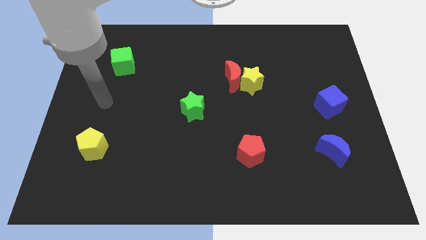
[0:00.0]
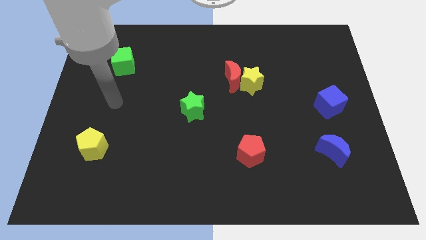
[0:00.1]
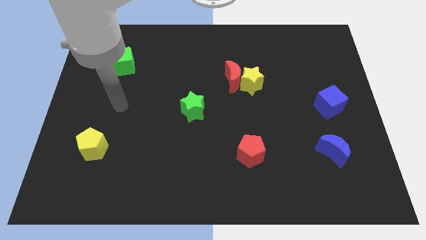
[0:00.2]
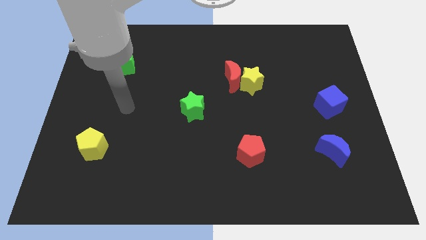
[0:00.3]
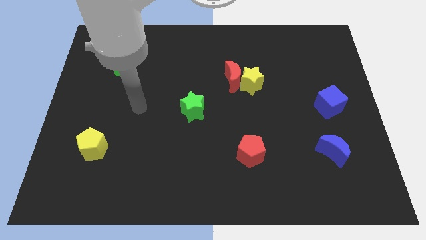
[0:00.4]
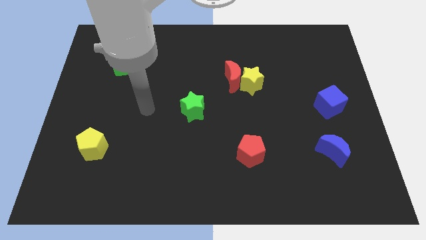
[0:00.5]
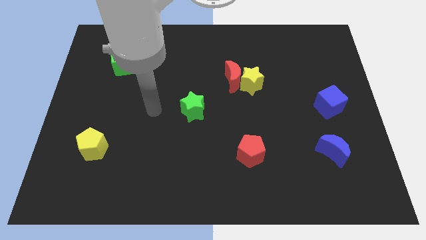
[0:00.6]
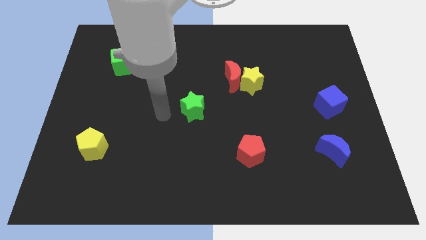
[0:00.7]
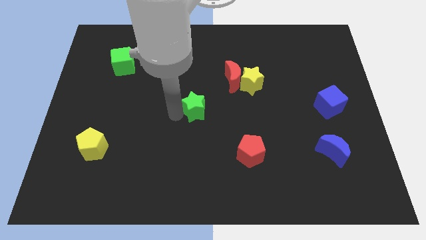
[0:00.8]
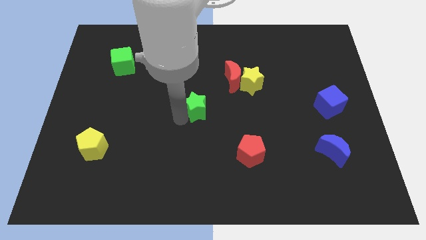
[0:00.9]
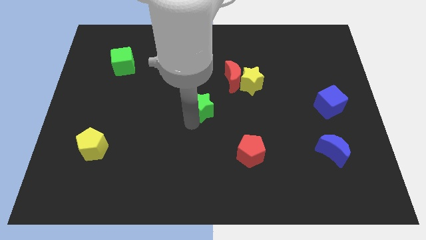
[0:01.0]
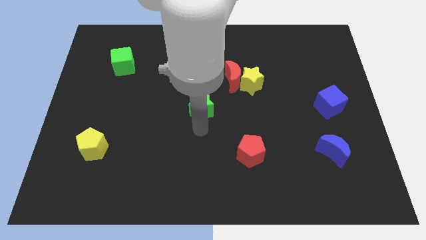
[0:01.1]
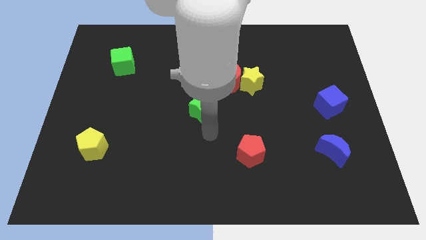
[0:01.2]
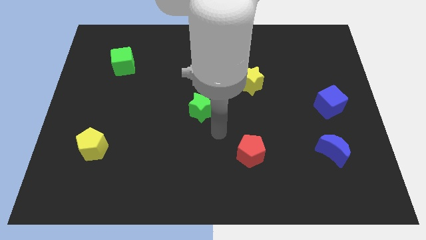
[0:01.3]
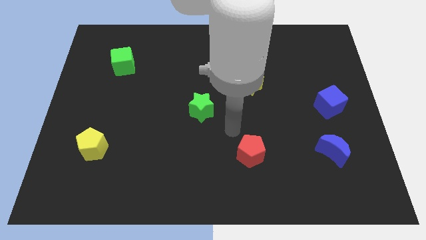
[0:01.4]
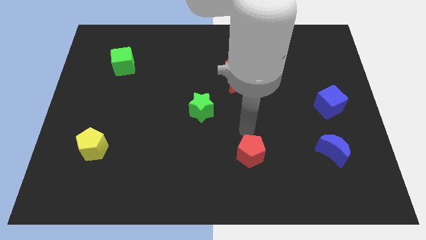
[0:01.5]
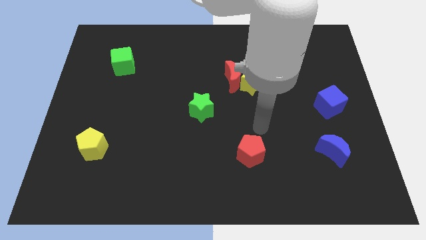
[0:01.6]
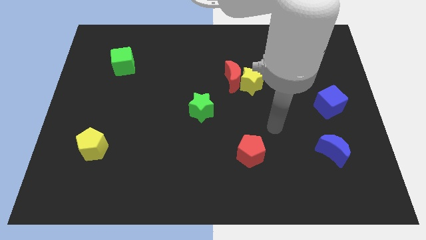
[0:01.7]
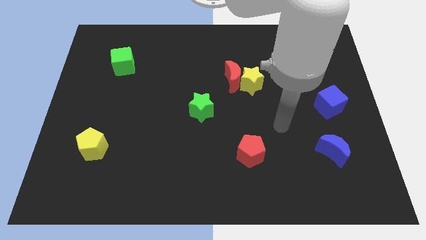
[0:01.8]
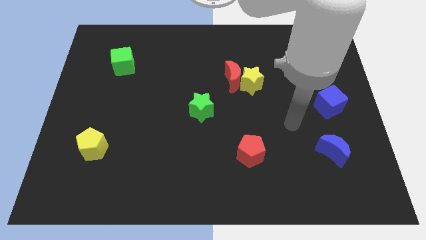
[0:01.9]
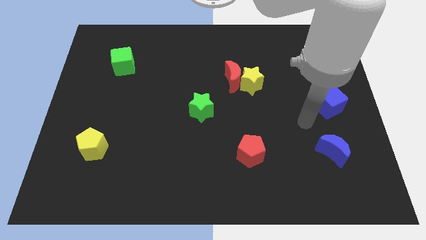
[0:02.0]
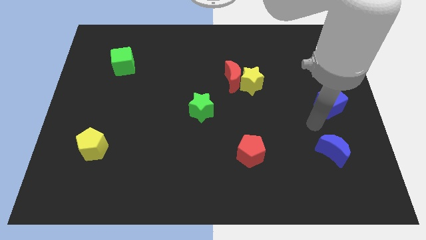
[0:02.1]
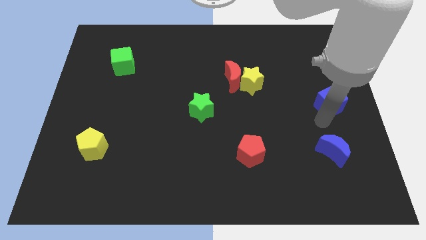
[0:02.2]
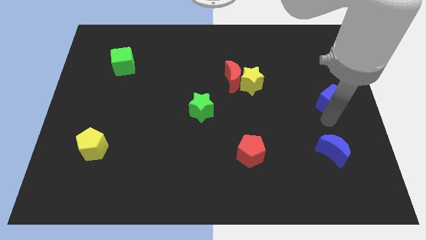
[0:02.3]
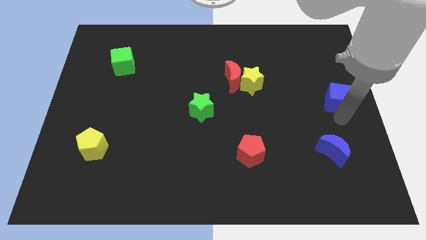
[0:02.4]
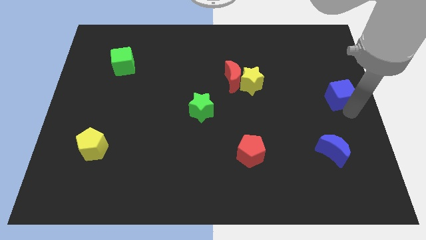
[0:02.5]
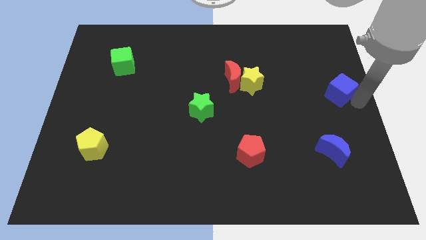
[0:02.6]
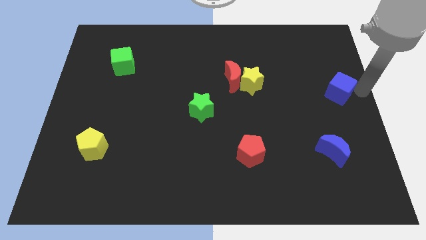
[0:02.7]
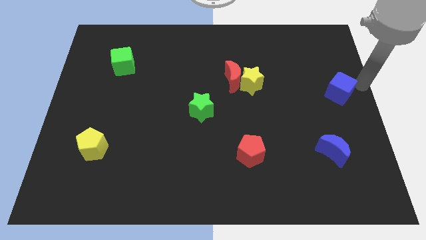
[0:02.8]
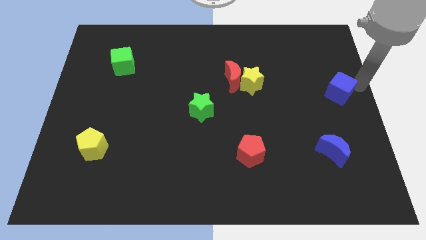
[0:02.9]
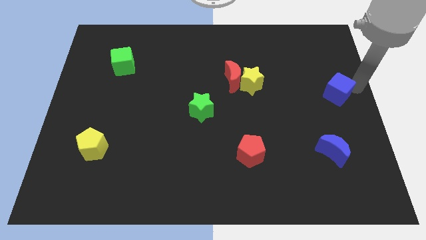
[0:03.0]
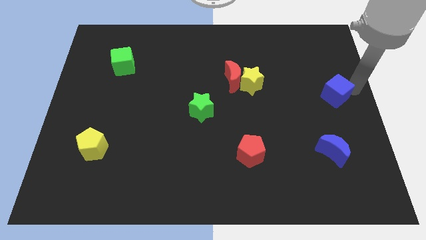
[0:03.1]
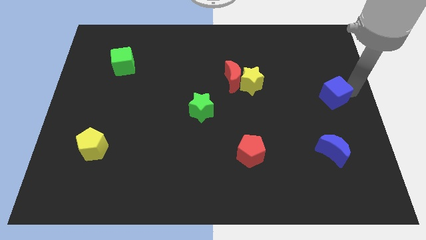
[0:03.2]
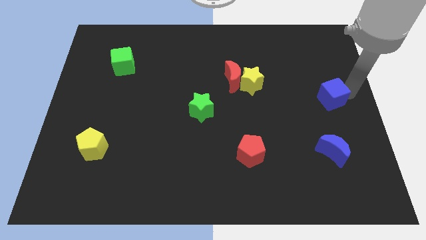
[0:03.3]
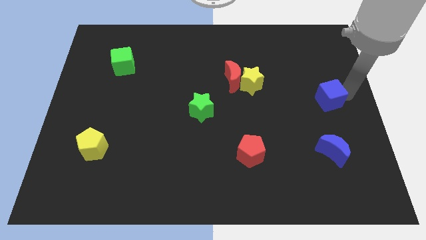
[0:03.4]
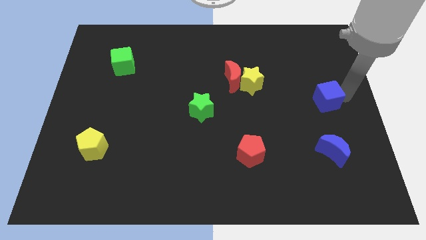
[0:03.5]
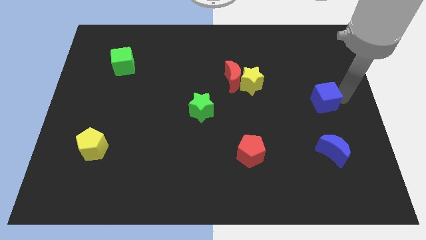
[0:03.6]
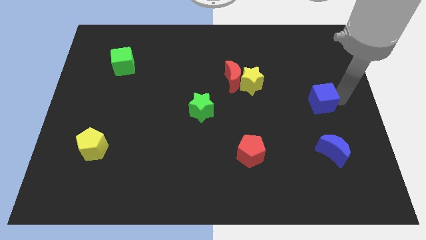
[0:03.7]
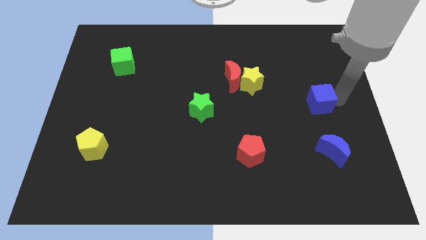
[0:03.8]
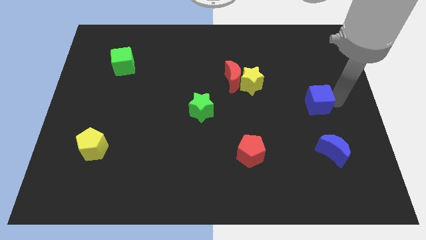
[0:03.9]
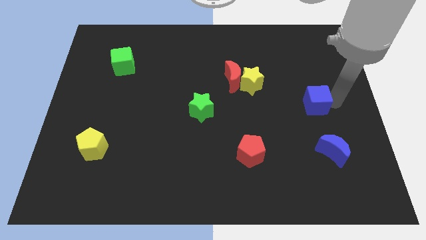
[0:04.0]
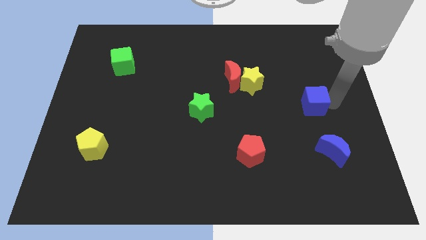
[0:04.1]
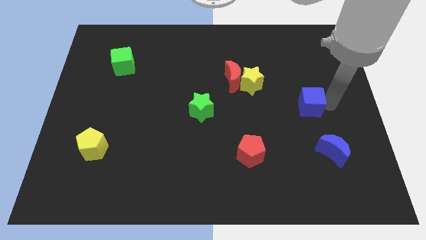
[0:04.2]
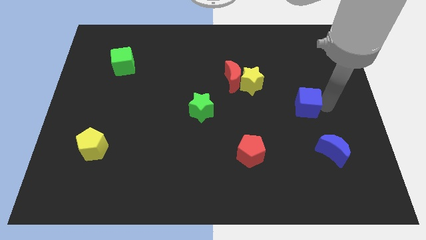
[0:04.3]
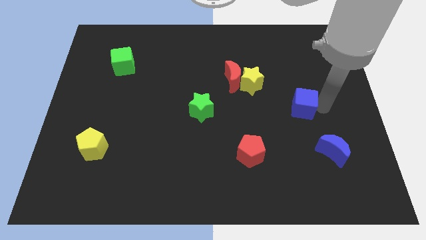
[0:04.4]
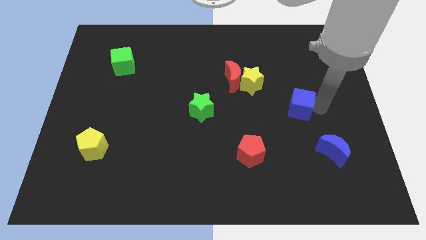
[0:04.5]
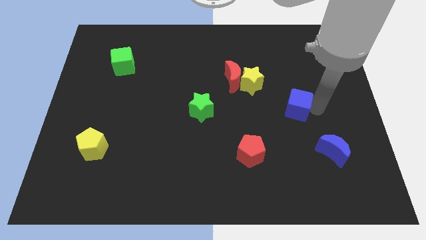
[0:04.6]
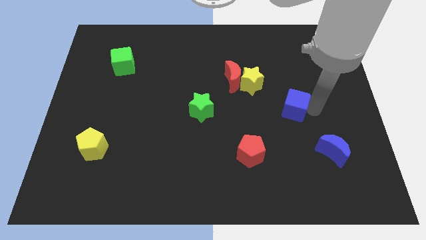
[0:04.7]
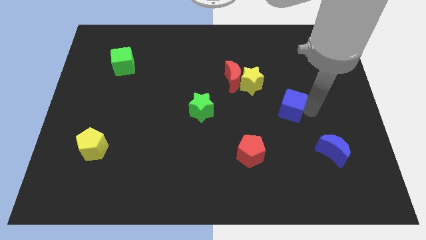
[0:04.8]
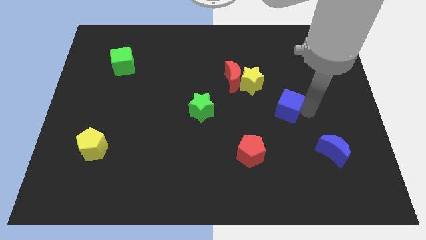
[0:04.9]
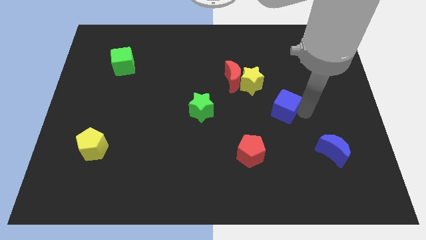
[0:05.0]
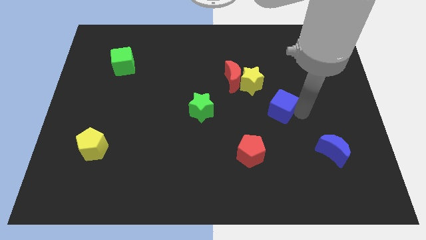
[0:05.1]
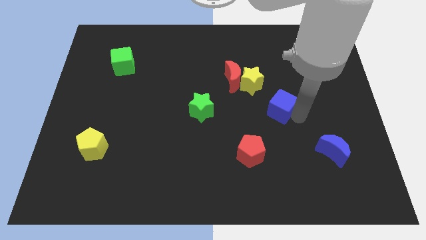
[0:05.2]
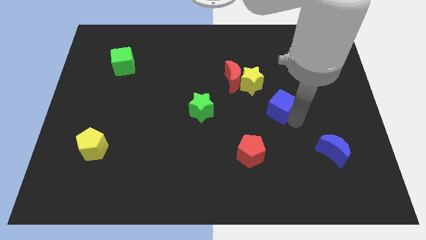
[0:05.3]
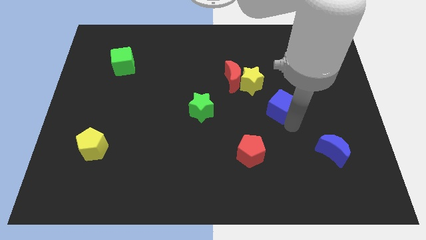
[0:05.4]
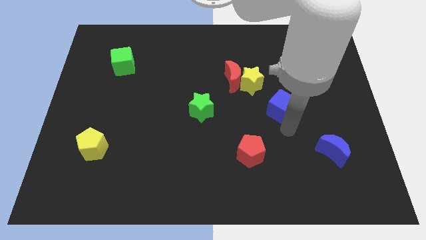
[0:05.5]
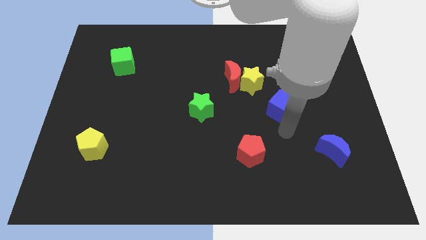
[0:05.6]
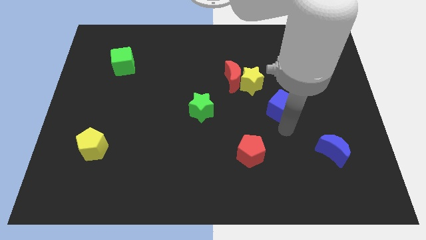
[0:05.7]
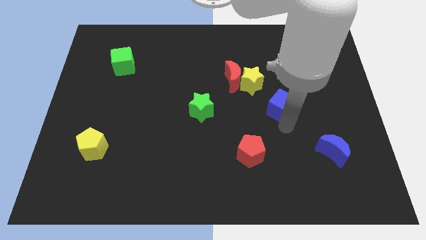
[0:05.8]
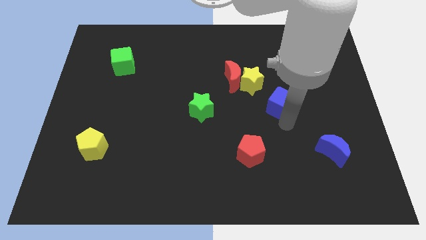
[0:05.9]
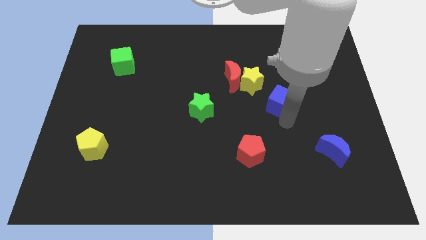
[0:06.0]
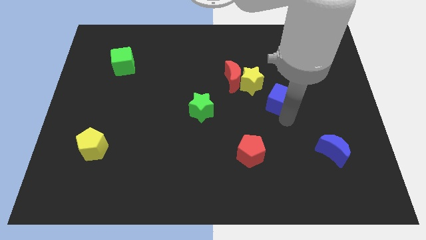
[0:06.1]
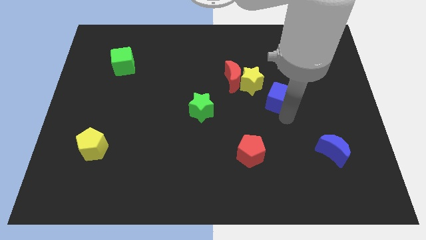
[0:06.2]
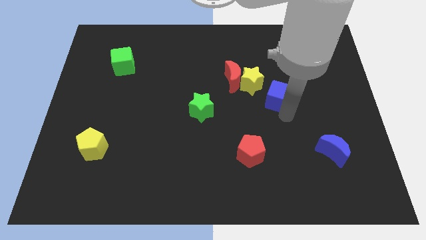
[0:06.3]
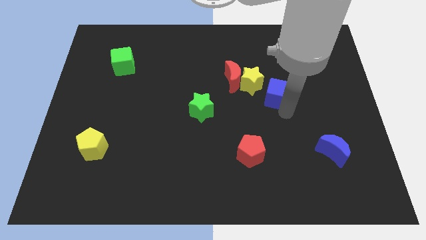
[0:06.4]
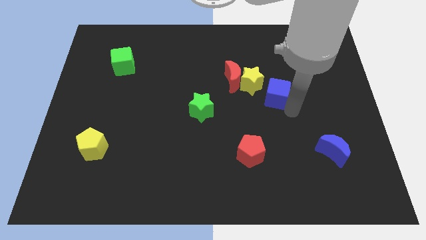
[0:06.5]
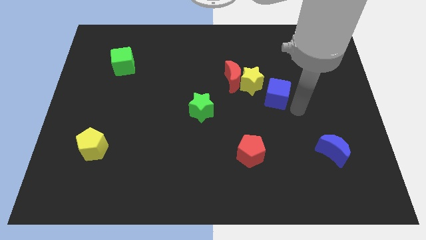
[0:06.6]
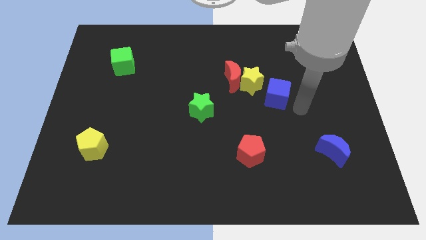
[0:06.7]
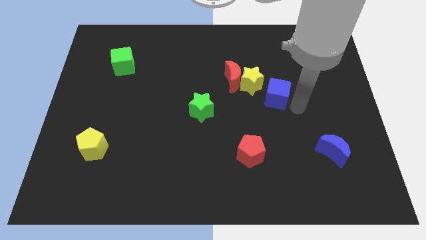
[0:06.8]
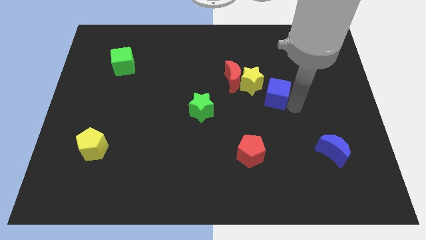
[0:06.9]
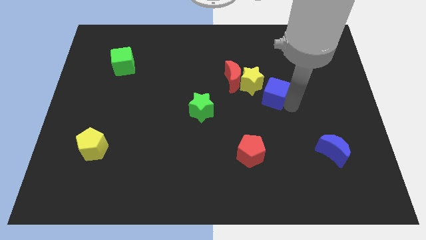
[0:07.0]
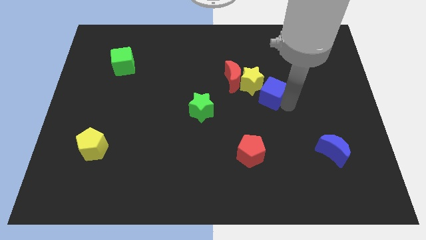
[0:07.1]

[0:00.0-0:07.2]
push the blue cube to the yellow star

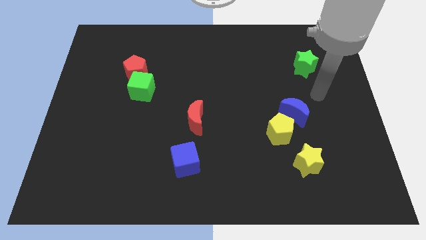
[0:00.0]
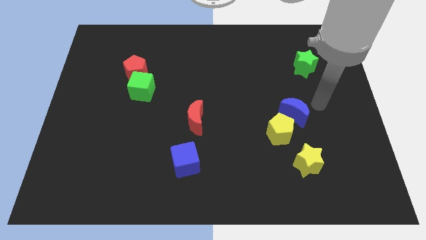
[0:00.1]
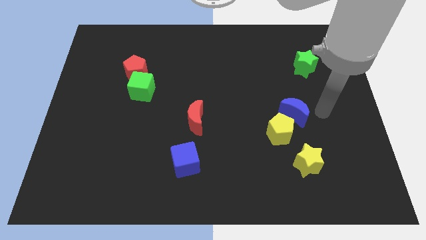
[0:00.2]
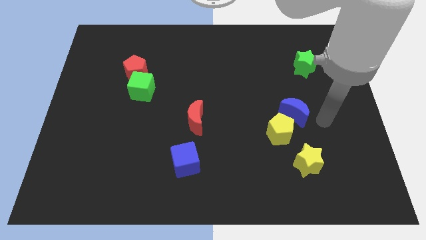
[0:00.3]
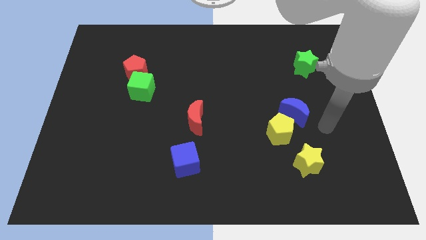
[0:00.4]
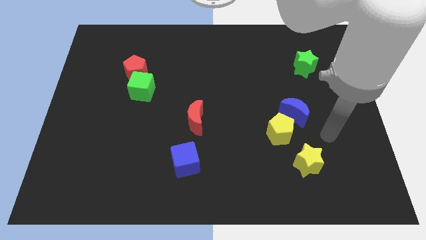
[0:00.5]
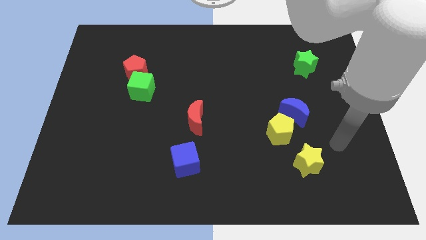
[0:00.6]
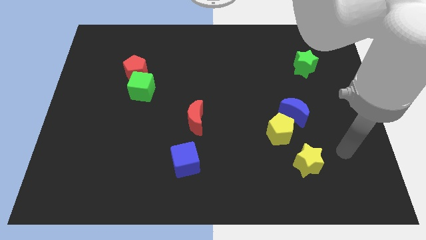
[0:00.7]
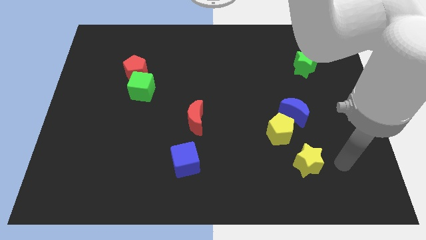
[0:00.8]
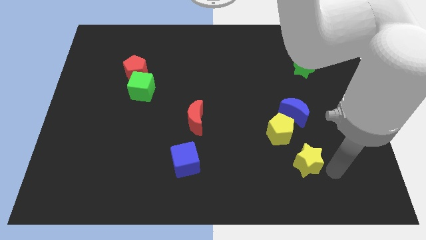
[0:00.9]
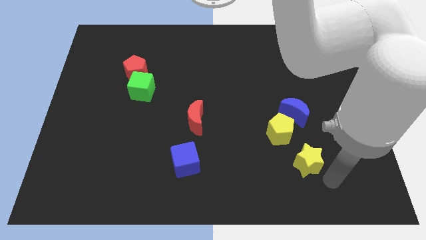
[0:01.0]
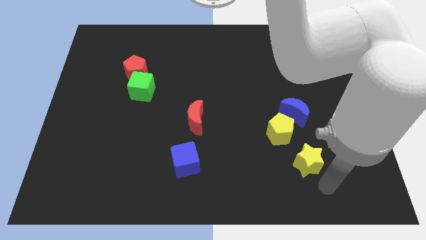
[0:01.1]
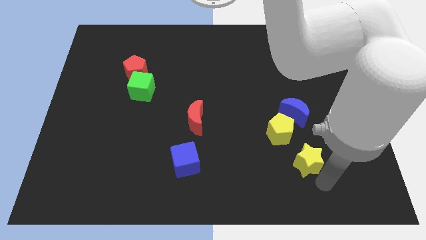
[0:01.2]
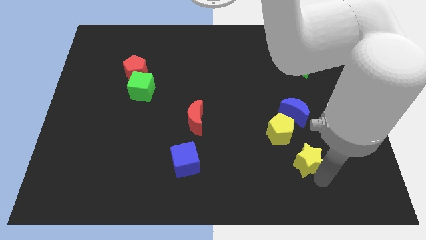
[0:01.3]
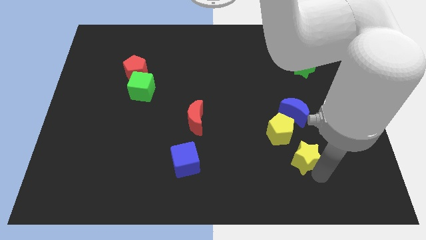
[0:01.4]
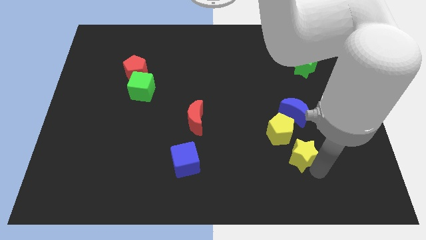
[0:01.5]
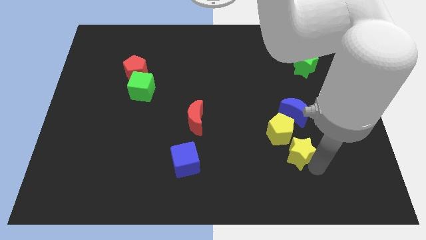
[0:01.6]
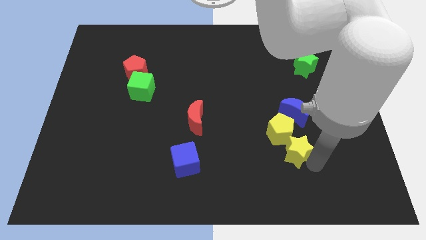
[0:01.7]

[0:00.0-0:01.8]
push the yellow star next to the yellow pentagon
